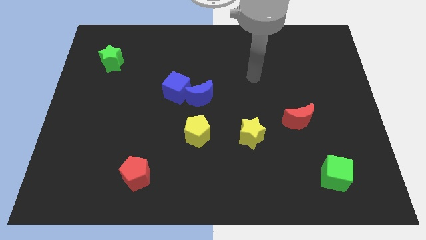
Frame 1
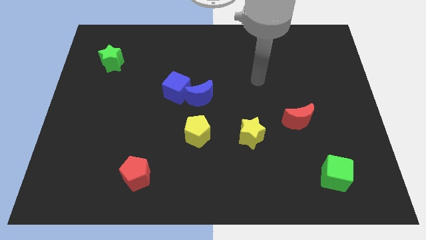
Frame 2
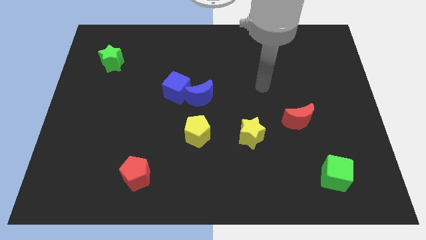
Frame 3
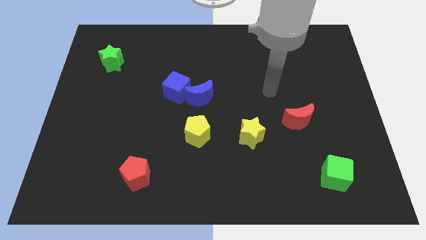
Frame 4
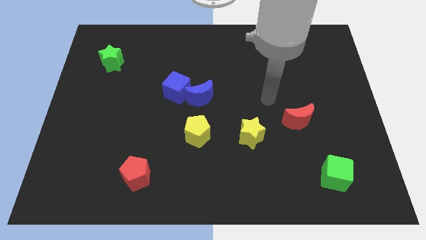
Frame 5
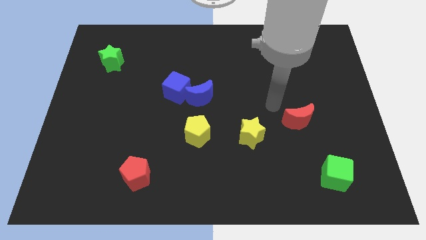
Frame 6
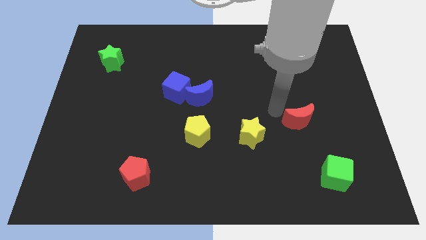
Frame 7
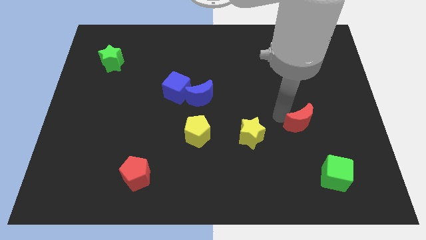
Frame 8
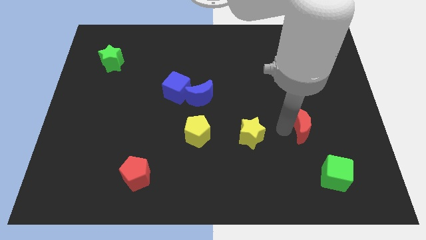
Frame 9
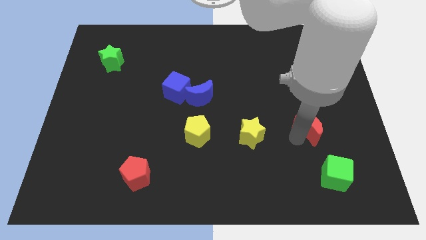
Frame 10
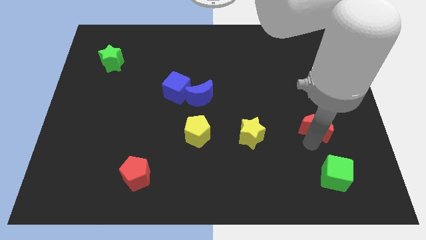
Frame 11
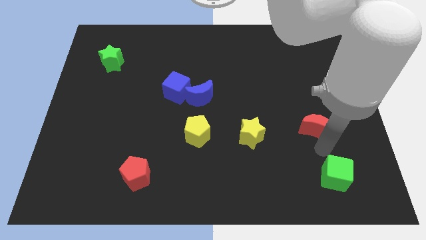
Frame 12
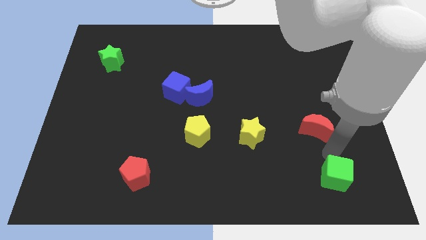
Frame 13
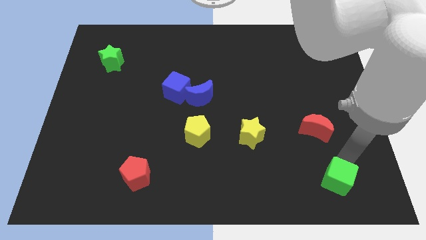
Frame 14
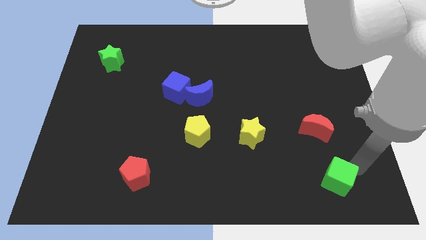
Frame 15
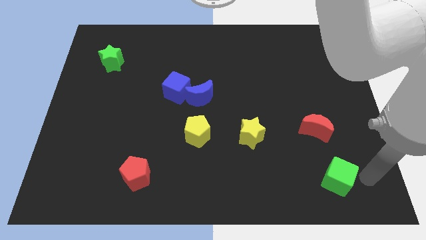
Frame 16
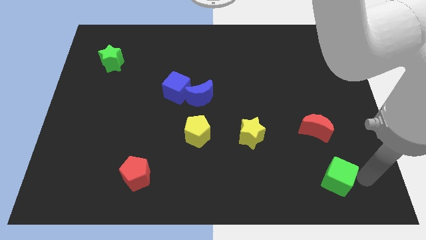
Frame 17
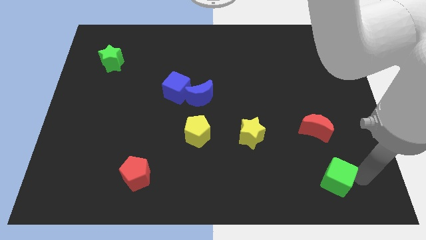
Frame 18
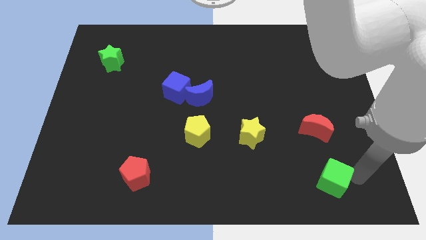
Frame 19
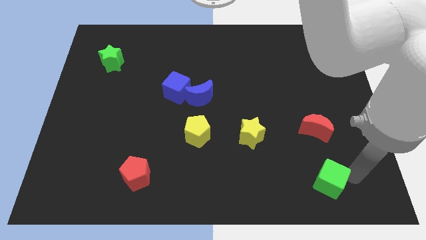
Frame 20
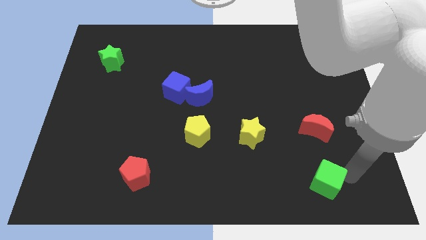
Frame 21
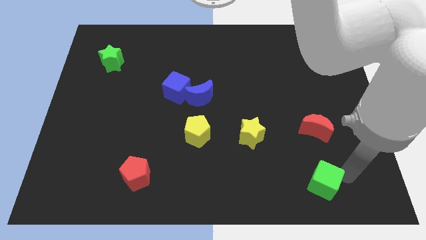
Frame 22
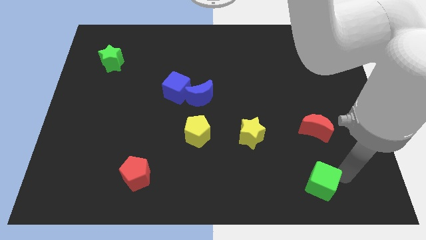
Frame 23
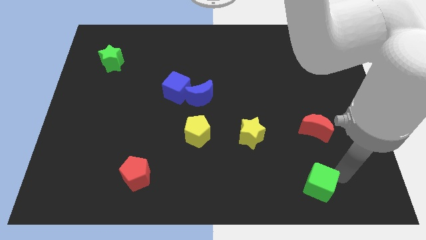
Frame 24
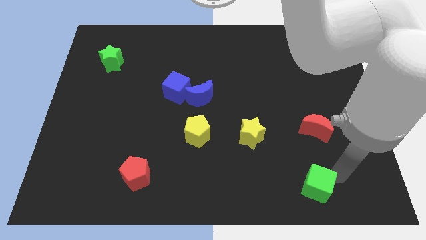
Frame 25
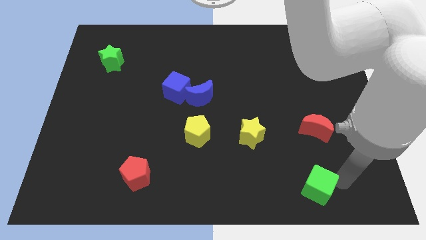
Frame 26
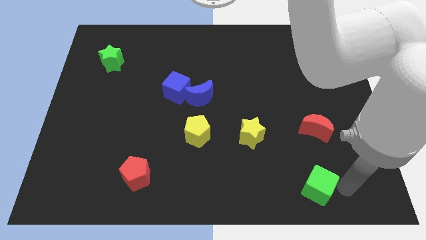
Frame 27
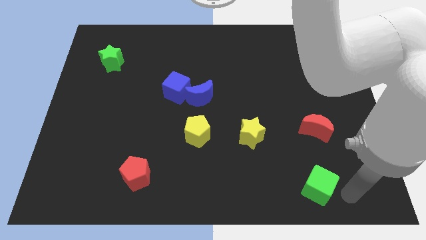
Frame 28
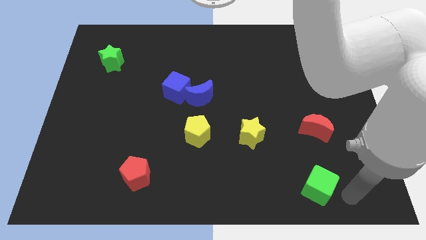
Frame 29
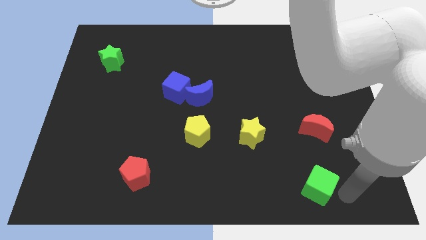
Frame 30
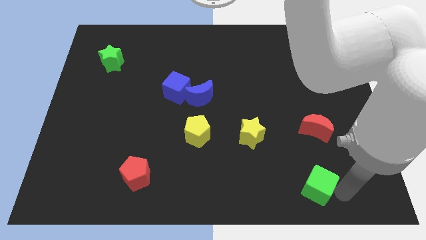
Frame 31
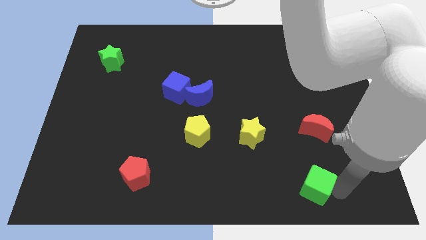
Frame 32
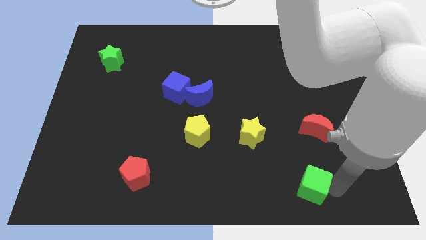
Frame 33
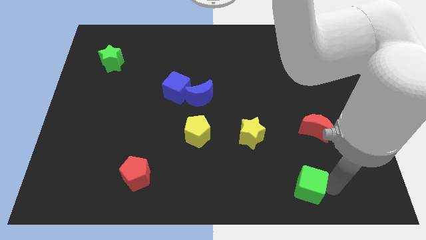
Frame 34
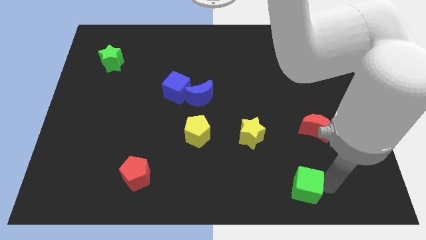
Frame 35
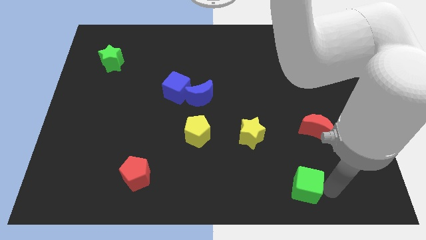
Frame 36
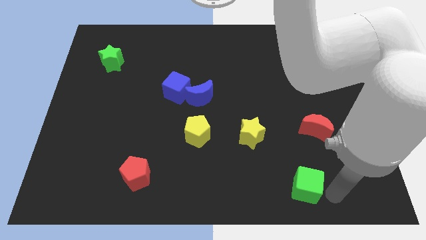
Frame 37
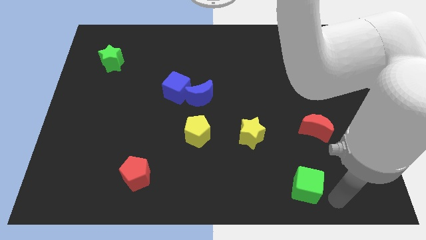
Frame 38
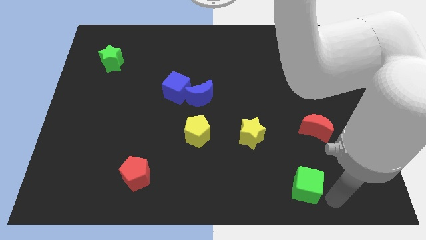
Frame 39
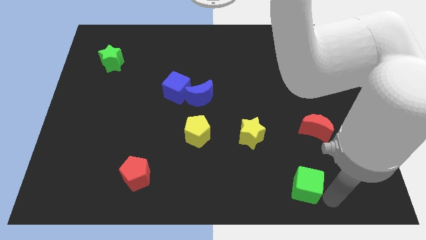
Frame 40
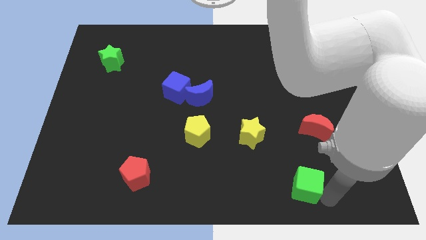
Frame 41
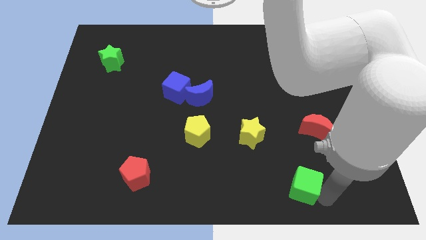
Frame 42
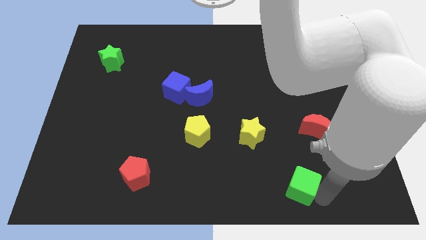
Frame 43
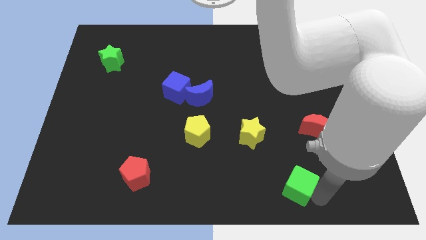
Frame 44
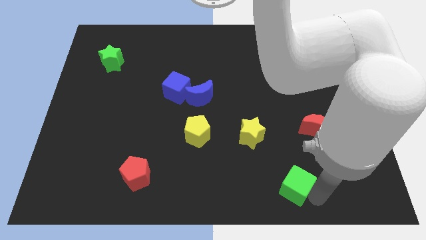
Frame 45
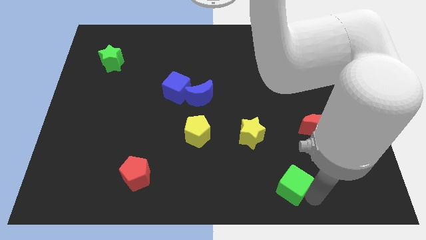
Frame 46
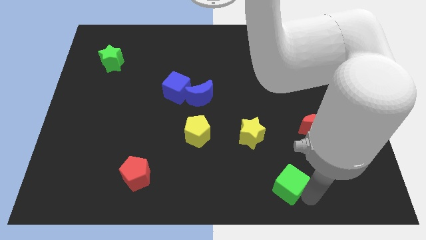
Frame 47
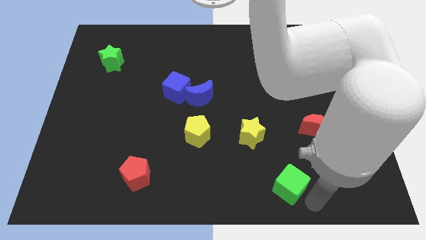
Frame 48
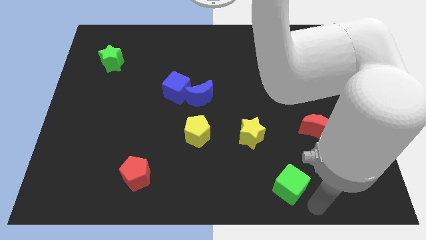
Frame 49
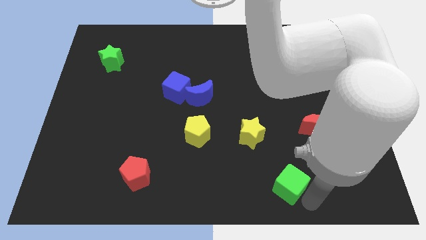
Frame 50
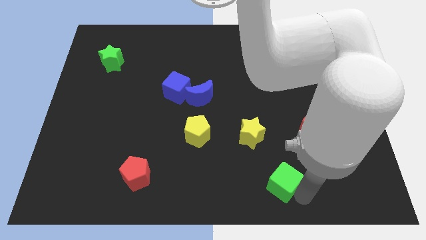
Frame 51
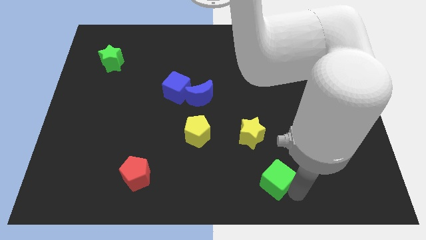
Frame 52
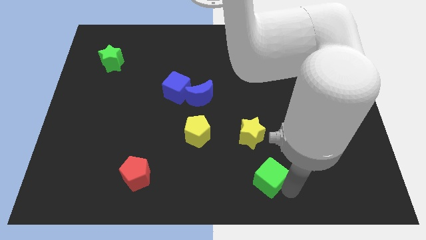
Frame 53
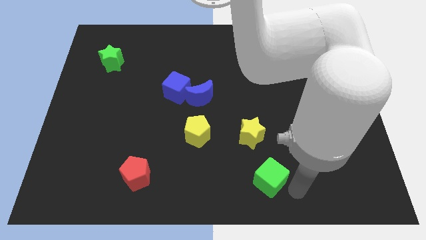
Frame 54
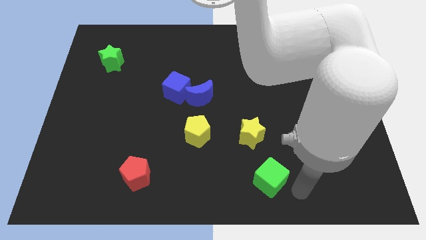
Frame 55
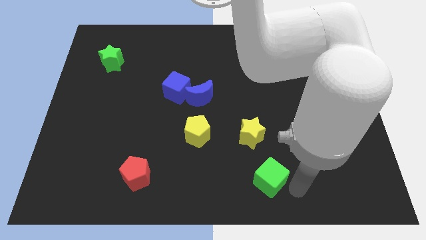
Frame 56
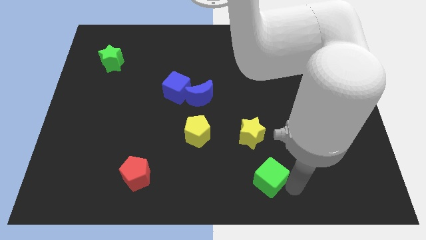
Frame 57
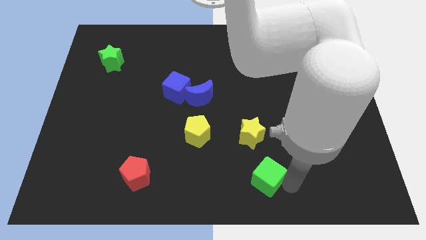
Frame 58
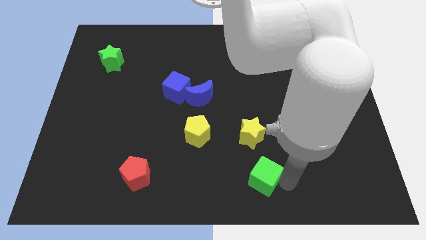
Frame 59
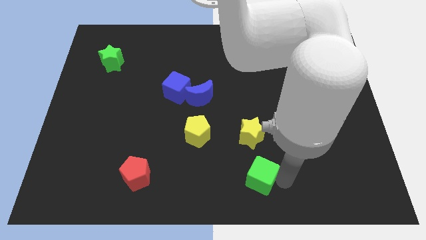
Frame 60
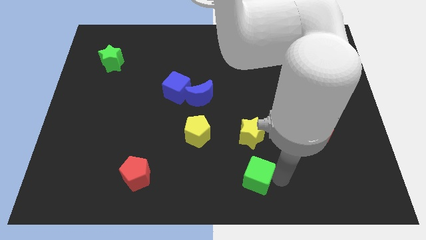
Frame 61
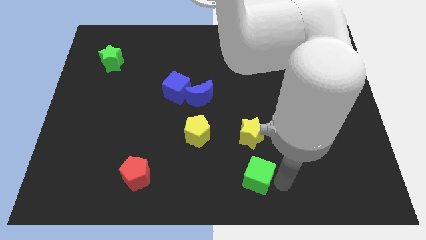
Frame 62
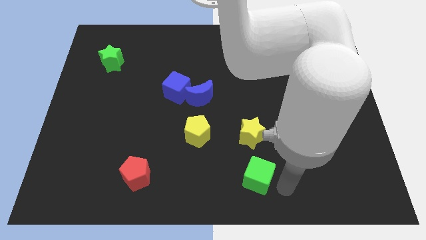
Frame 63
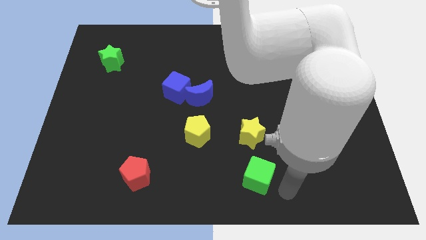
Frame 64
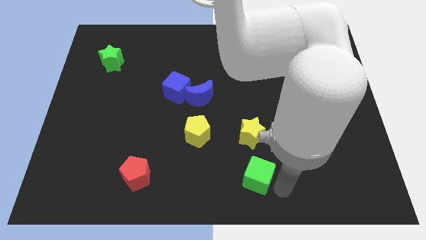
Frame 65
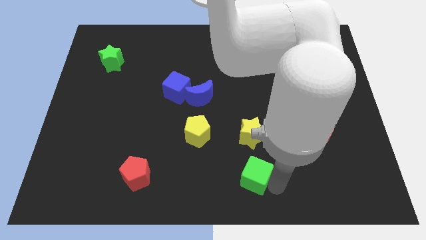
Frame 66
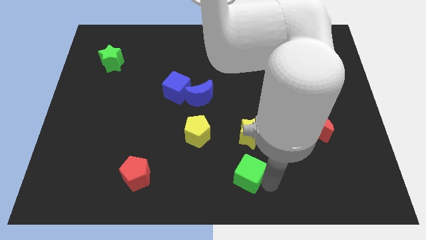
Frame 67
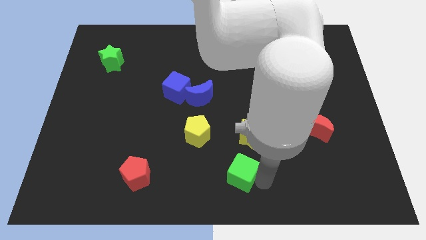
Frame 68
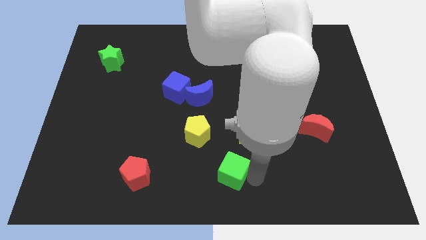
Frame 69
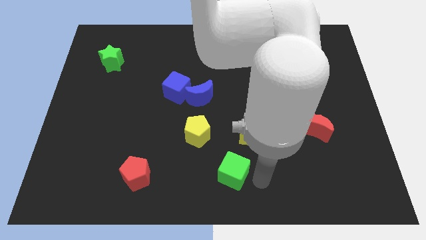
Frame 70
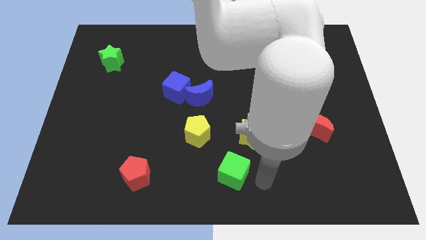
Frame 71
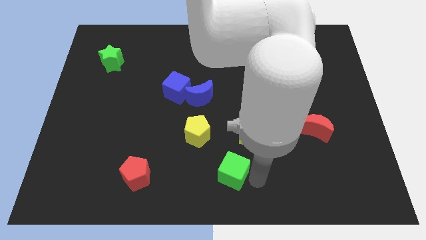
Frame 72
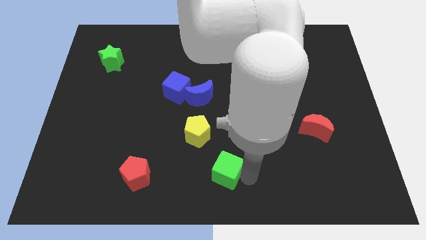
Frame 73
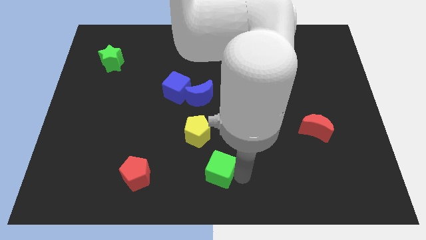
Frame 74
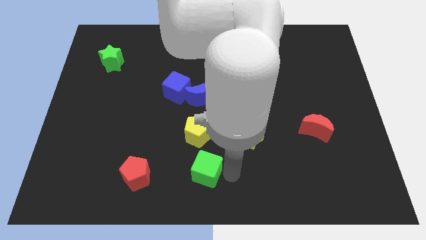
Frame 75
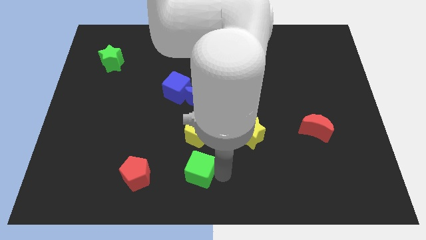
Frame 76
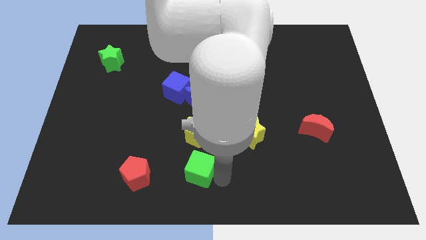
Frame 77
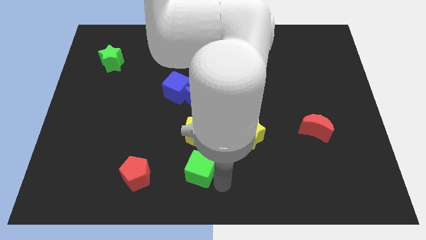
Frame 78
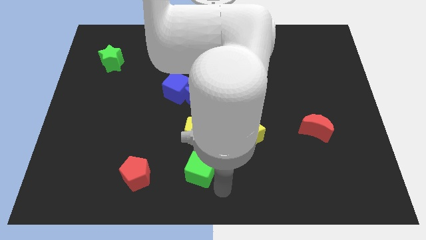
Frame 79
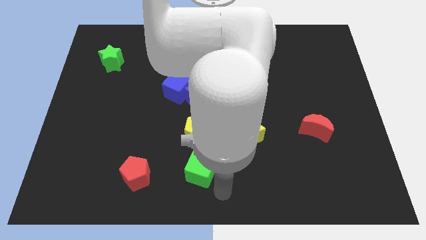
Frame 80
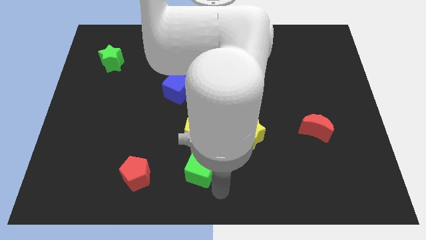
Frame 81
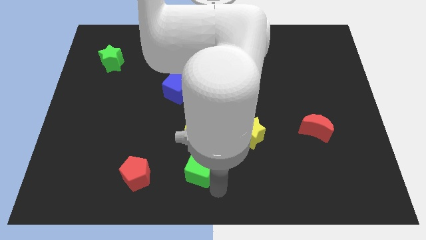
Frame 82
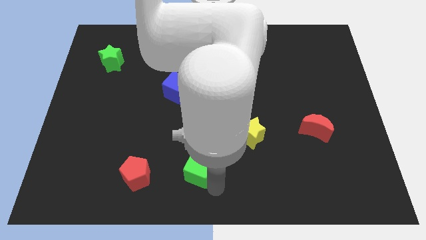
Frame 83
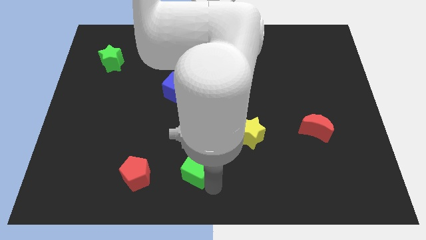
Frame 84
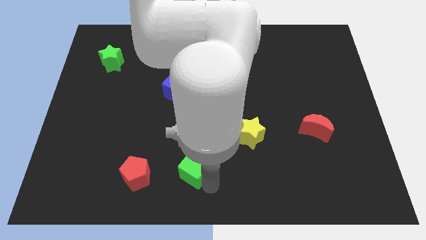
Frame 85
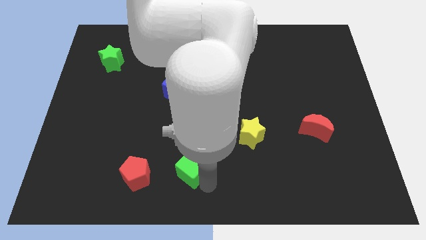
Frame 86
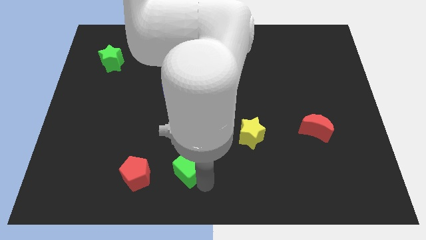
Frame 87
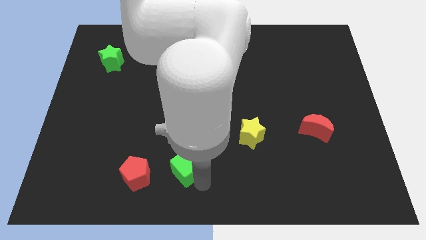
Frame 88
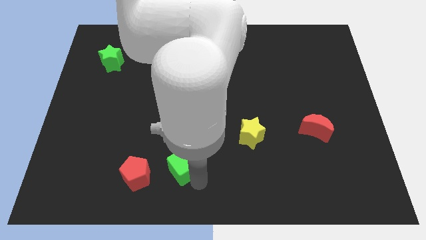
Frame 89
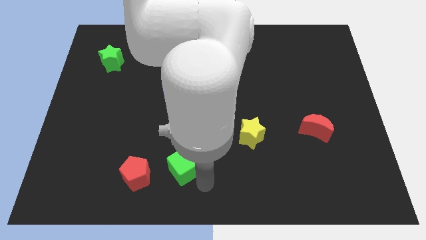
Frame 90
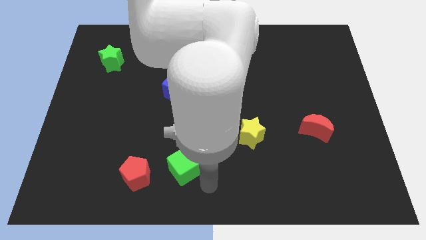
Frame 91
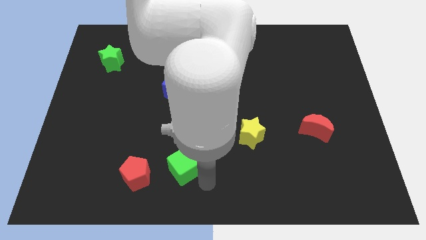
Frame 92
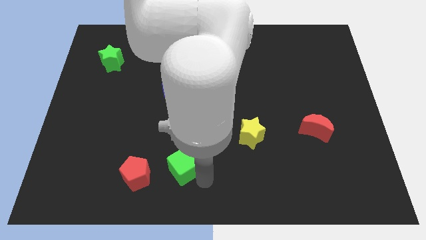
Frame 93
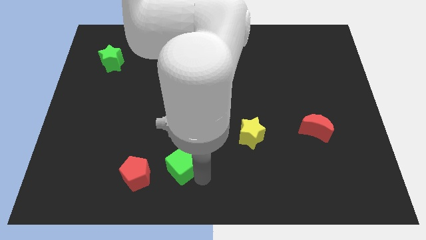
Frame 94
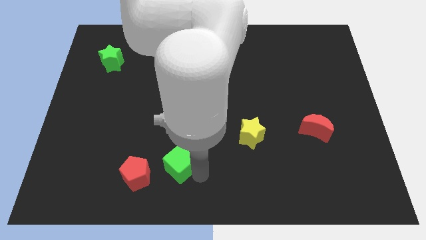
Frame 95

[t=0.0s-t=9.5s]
put the green cube diagonally up and to the right of the red pentagon
